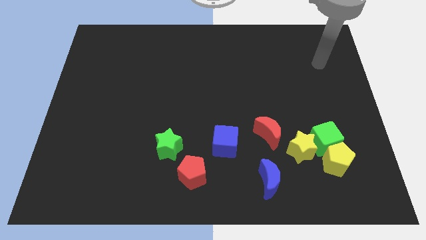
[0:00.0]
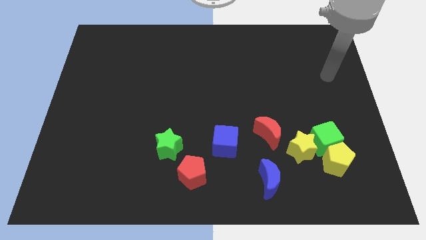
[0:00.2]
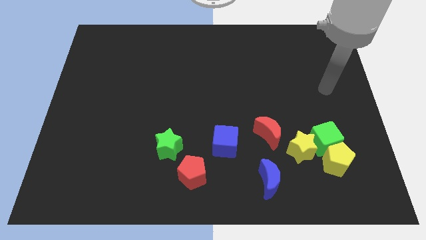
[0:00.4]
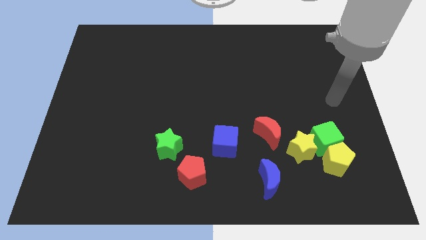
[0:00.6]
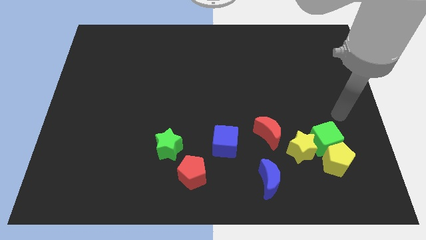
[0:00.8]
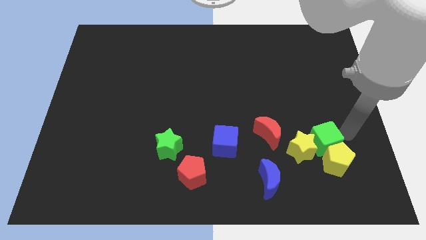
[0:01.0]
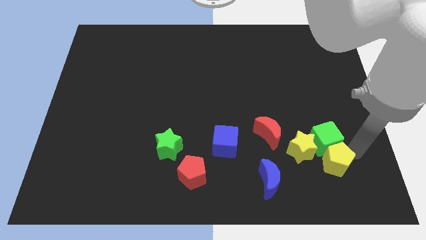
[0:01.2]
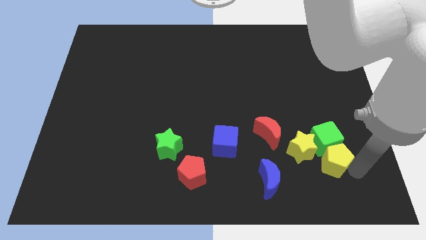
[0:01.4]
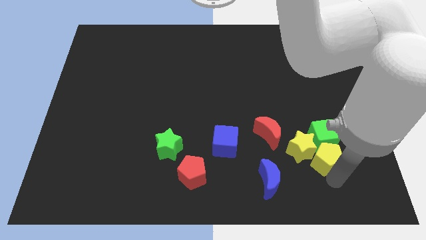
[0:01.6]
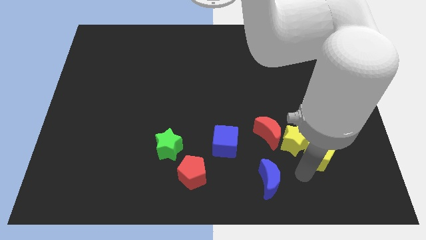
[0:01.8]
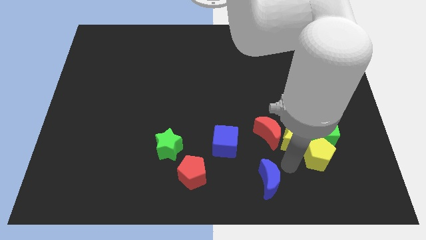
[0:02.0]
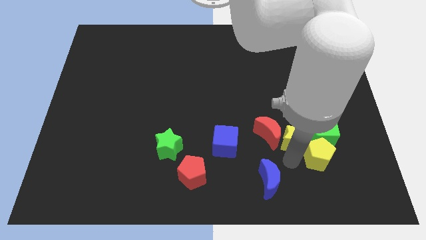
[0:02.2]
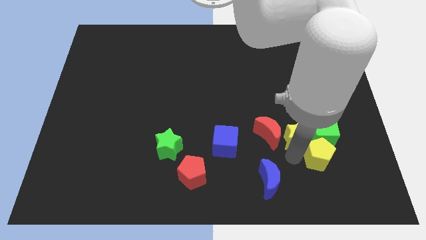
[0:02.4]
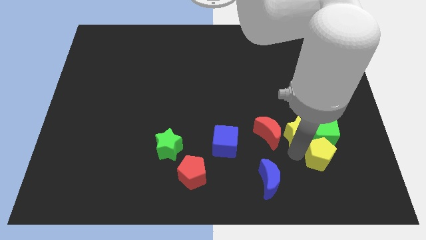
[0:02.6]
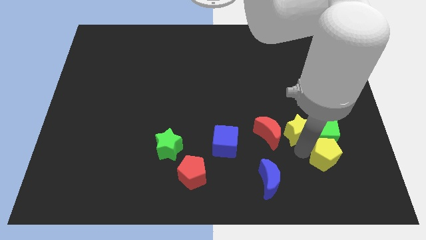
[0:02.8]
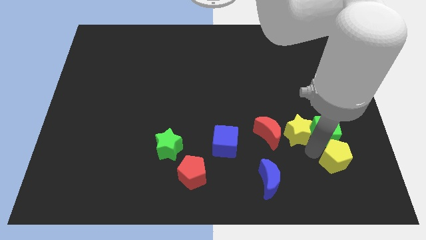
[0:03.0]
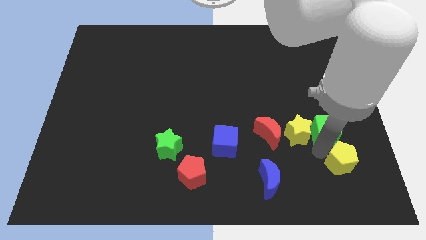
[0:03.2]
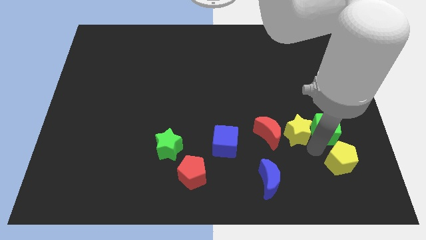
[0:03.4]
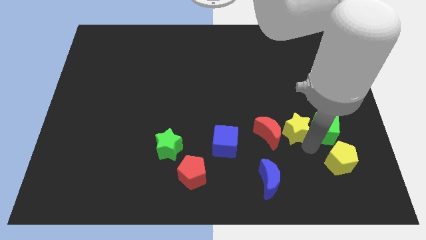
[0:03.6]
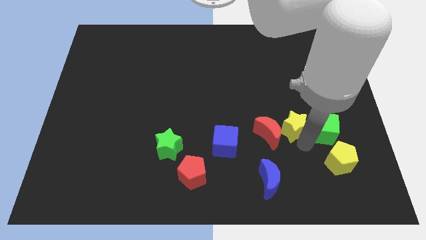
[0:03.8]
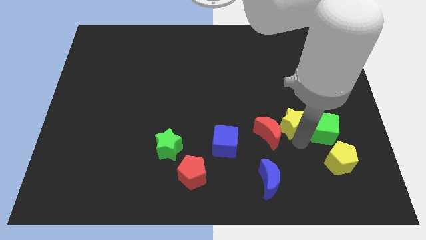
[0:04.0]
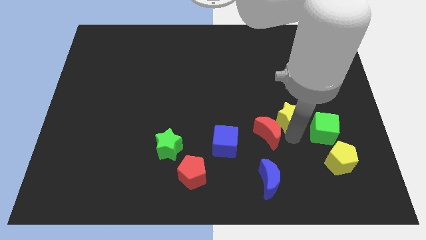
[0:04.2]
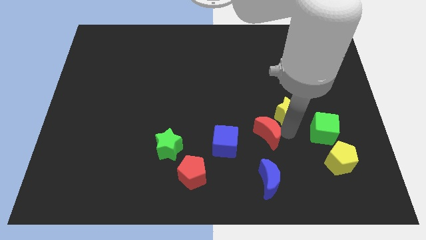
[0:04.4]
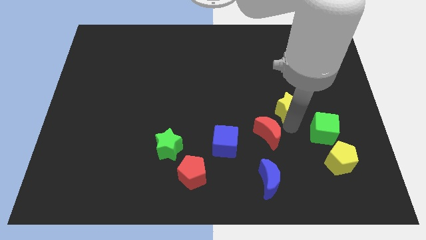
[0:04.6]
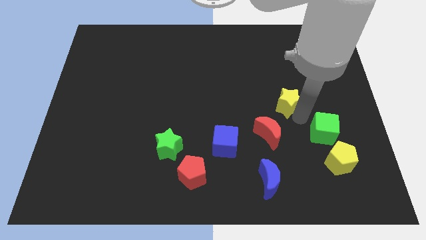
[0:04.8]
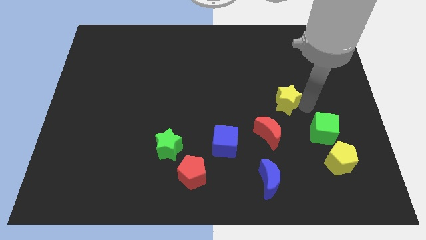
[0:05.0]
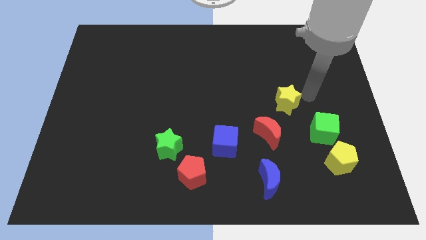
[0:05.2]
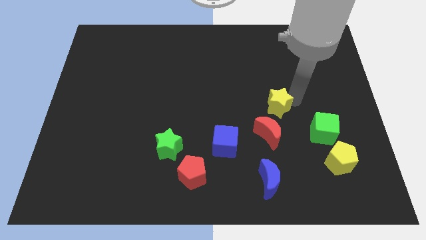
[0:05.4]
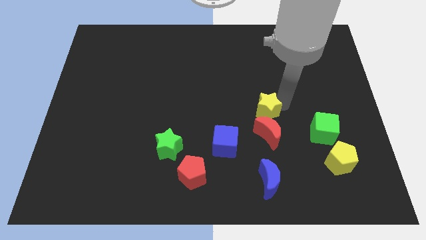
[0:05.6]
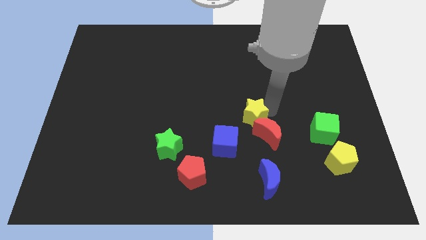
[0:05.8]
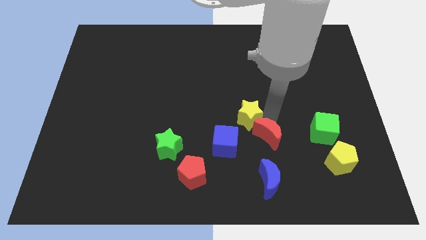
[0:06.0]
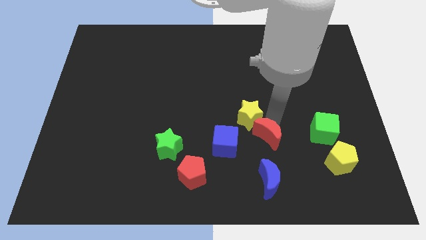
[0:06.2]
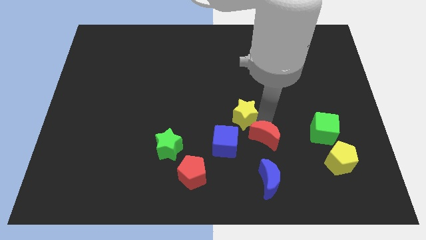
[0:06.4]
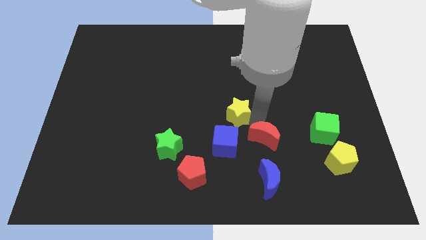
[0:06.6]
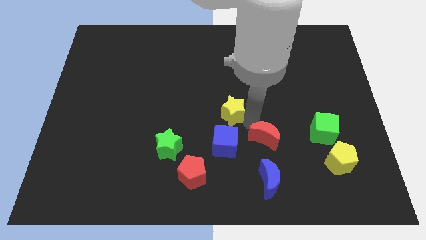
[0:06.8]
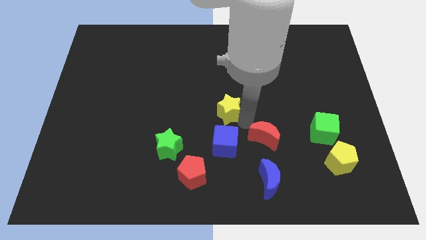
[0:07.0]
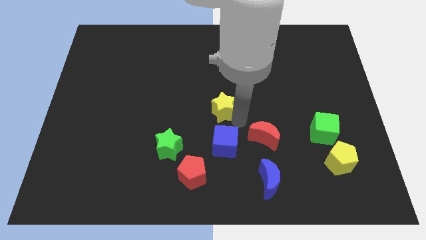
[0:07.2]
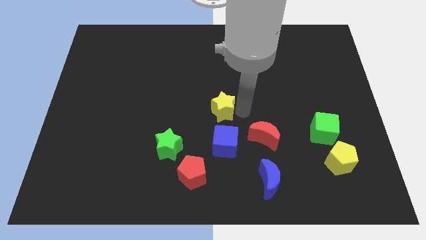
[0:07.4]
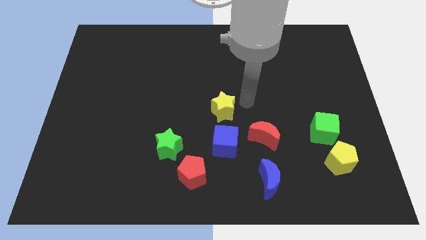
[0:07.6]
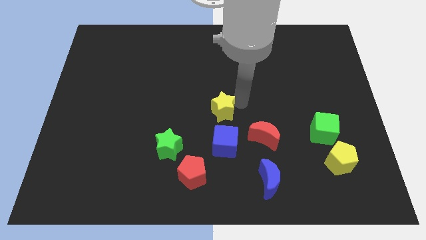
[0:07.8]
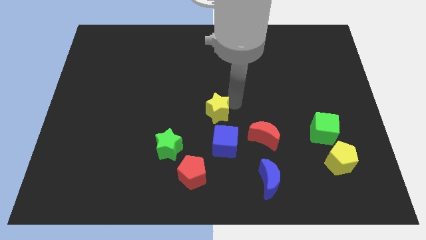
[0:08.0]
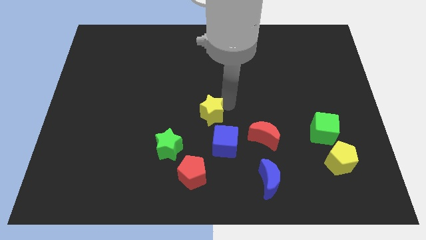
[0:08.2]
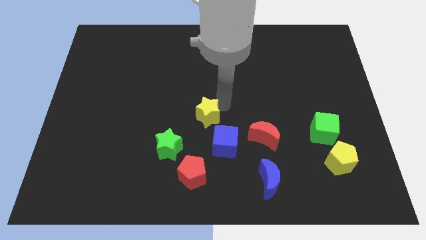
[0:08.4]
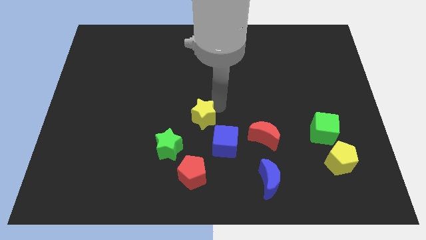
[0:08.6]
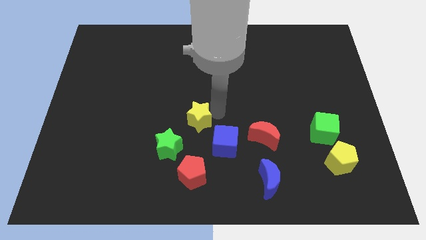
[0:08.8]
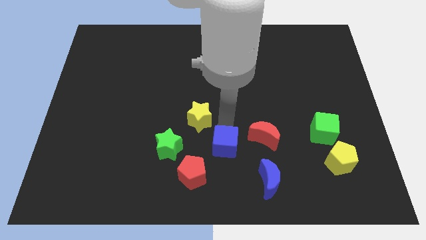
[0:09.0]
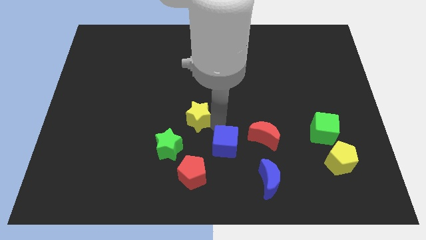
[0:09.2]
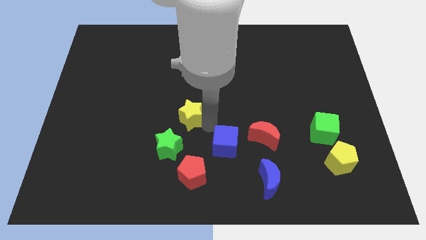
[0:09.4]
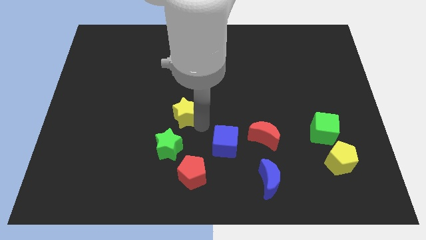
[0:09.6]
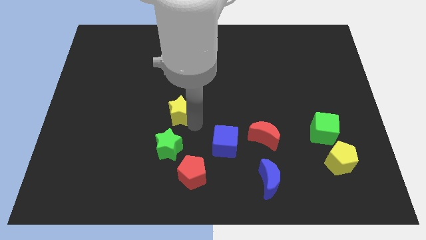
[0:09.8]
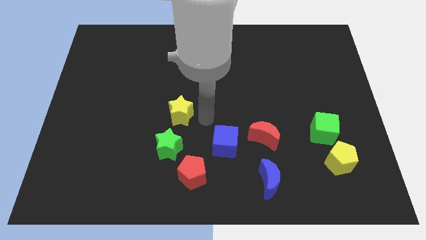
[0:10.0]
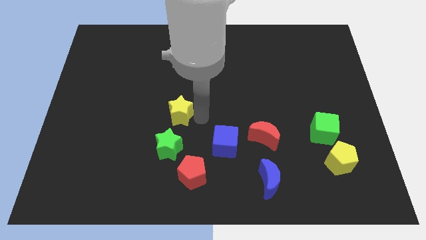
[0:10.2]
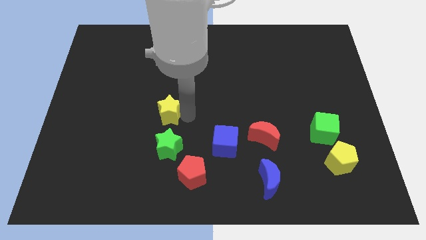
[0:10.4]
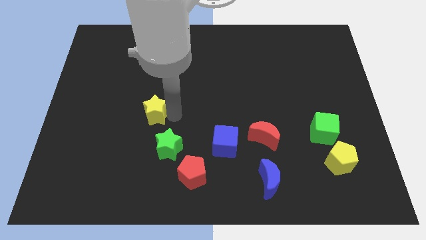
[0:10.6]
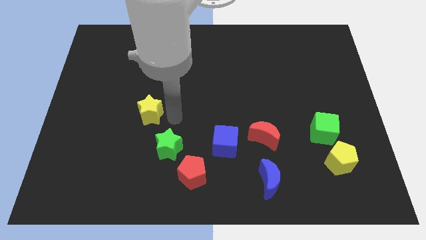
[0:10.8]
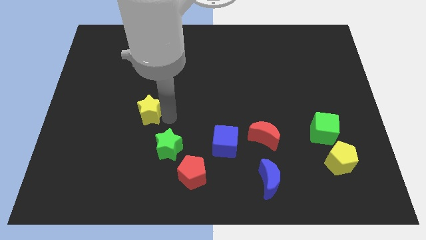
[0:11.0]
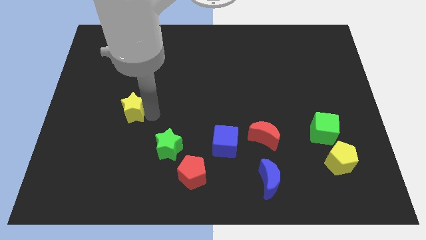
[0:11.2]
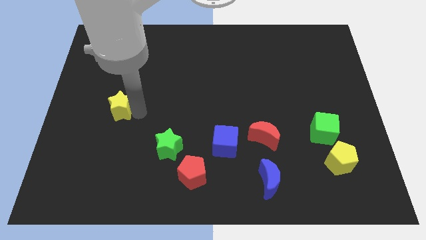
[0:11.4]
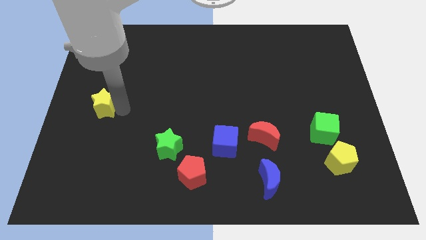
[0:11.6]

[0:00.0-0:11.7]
push the yellow star to the left side of the board

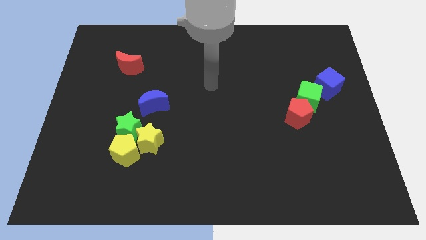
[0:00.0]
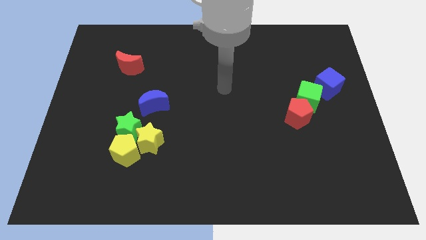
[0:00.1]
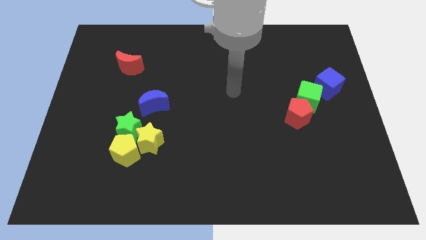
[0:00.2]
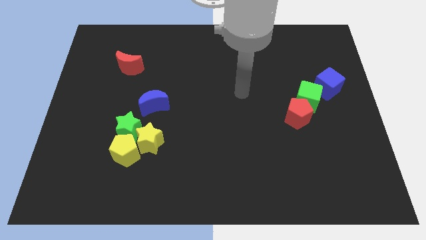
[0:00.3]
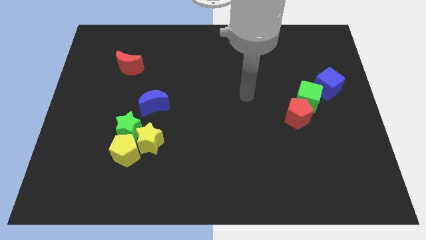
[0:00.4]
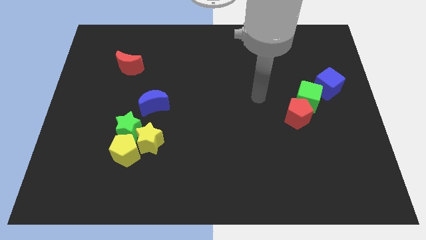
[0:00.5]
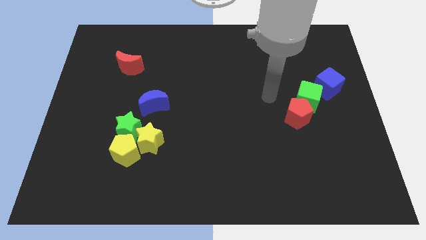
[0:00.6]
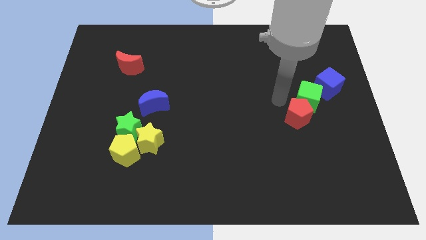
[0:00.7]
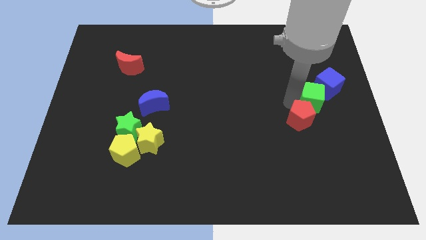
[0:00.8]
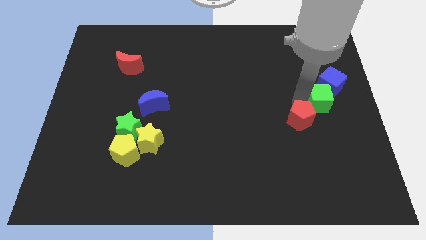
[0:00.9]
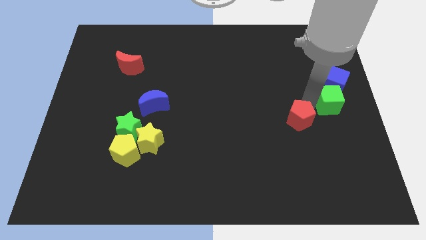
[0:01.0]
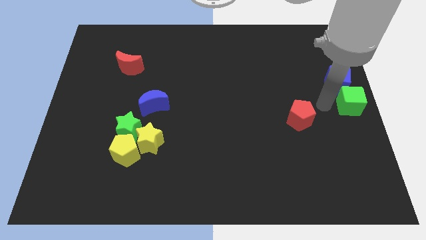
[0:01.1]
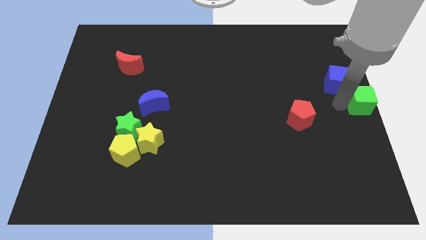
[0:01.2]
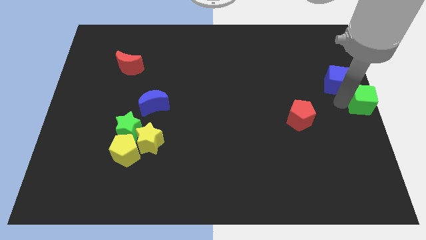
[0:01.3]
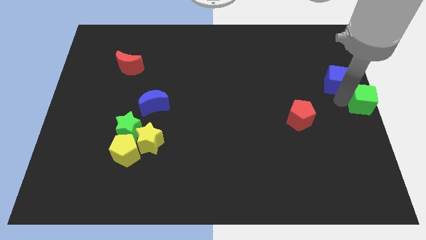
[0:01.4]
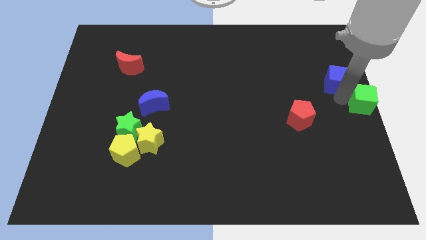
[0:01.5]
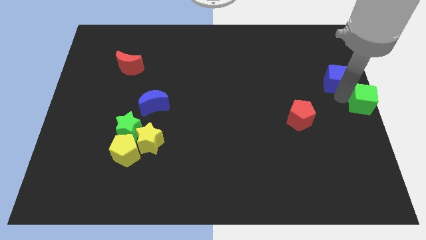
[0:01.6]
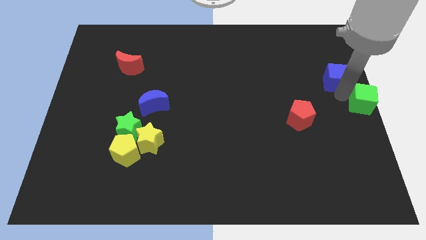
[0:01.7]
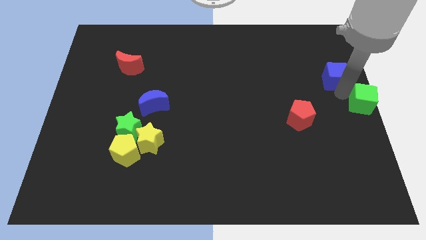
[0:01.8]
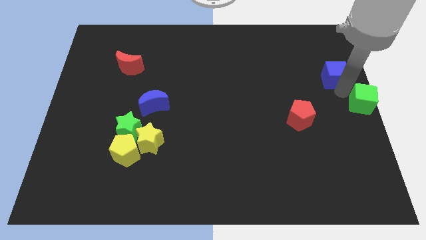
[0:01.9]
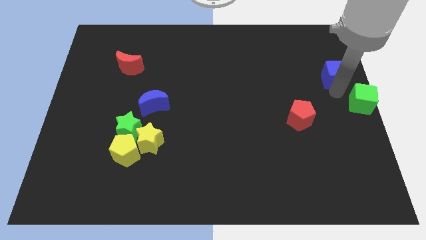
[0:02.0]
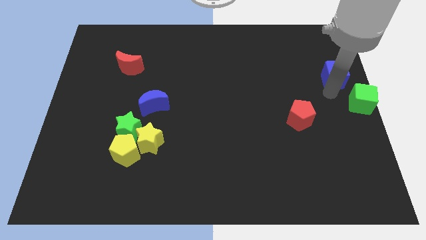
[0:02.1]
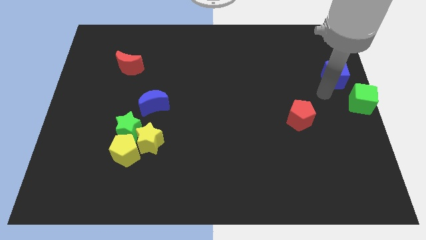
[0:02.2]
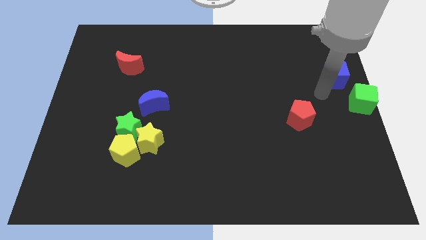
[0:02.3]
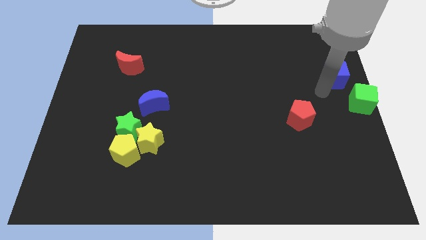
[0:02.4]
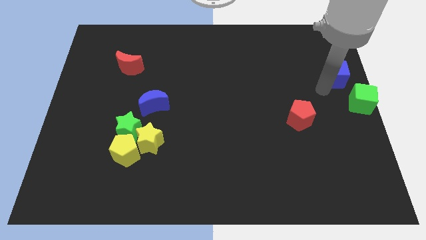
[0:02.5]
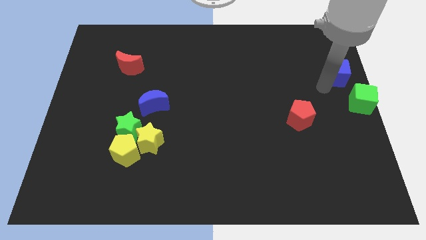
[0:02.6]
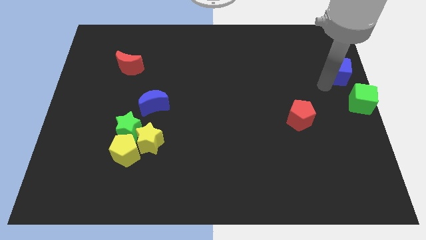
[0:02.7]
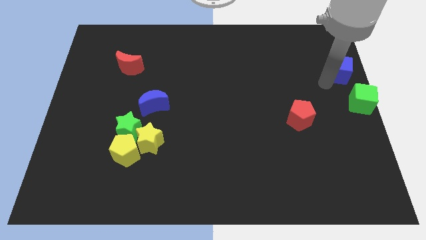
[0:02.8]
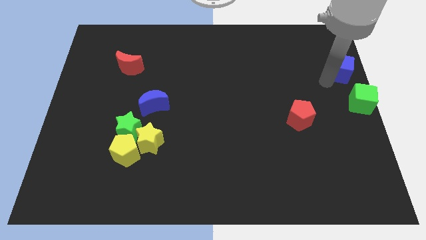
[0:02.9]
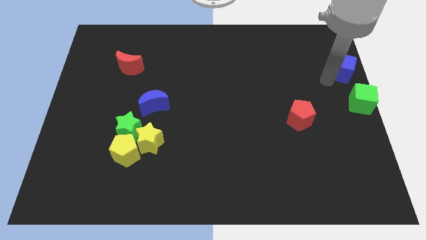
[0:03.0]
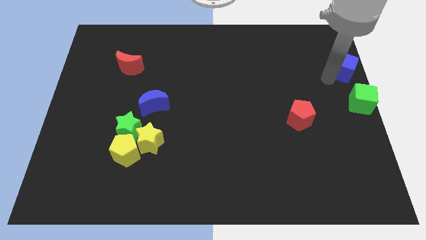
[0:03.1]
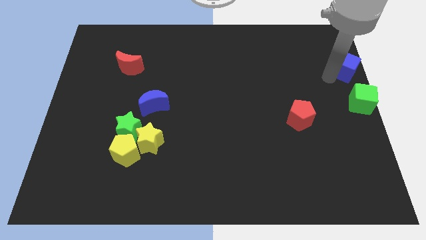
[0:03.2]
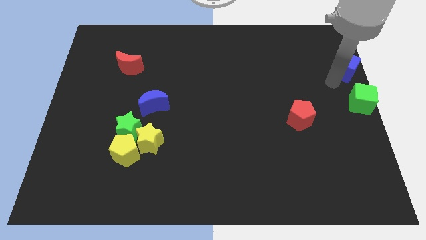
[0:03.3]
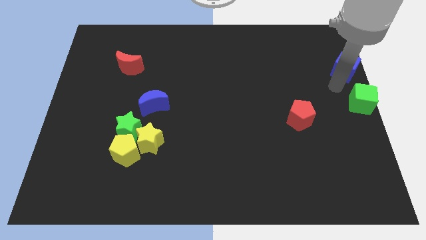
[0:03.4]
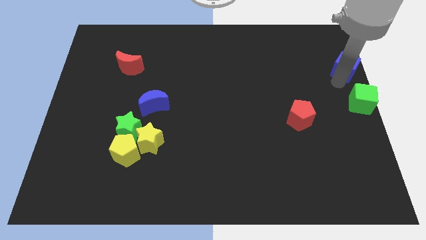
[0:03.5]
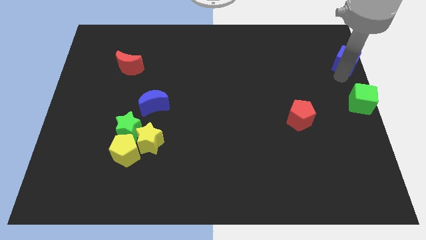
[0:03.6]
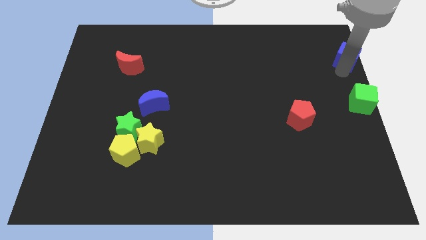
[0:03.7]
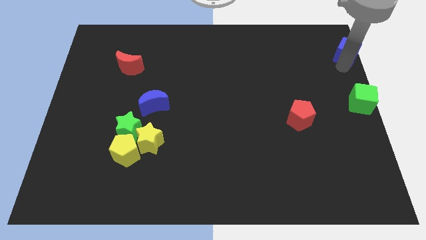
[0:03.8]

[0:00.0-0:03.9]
slide the blue cube to the top right corner
